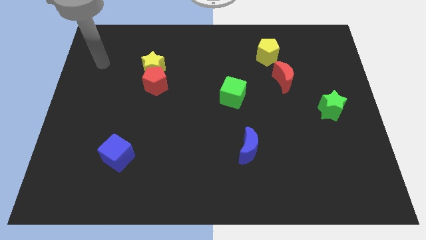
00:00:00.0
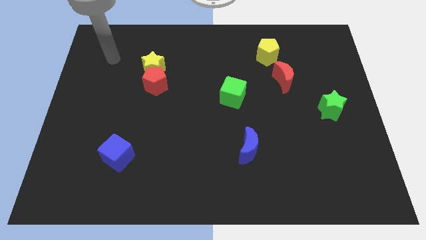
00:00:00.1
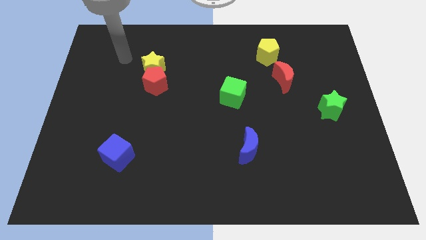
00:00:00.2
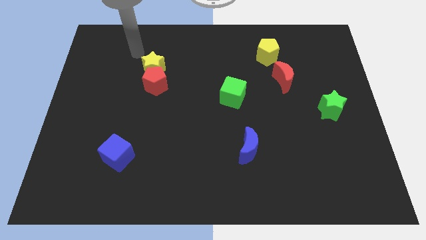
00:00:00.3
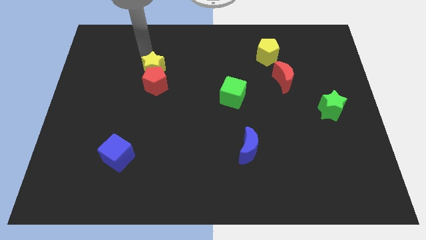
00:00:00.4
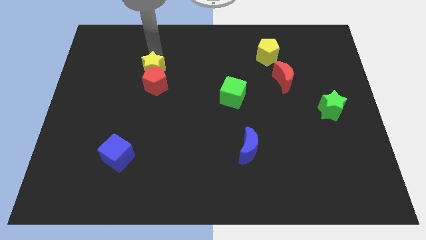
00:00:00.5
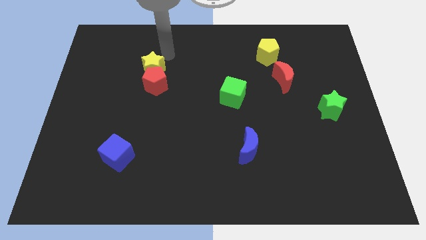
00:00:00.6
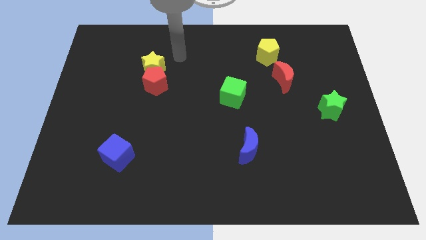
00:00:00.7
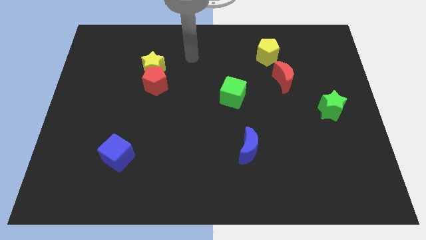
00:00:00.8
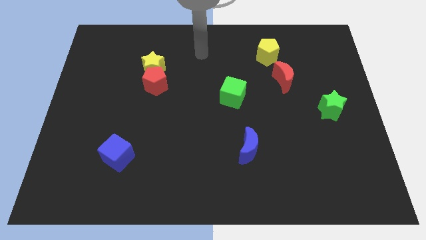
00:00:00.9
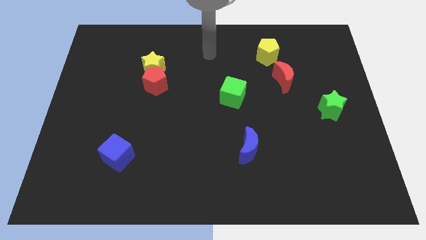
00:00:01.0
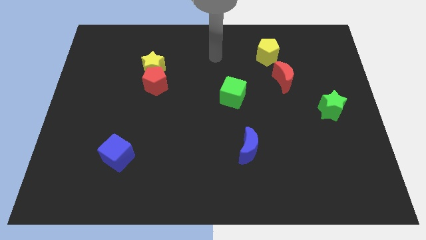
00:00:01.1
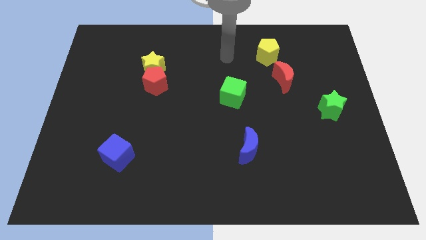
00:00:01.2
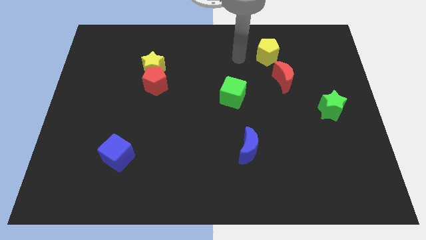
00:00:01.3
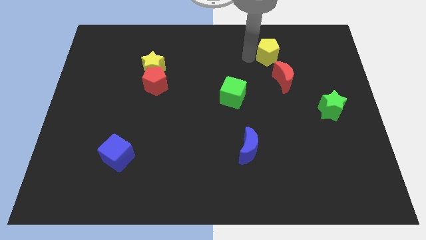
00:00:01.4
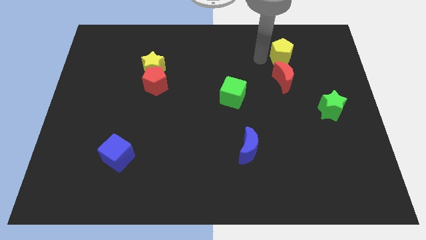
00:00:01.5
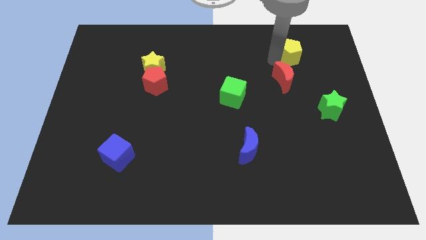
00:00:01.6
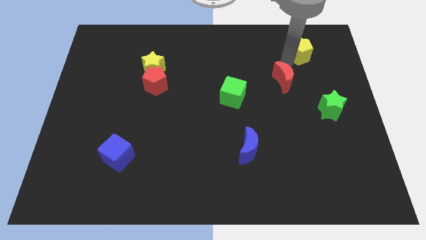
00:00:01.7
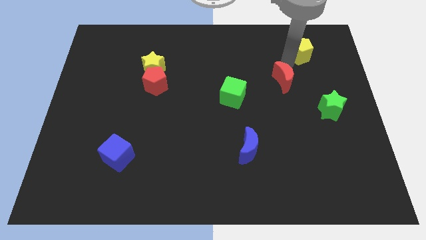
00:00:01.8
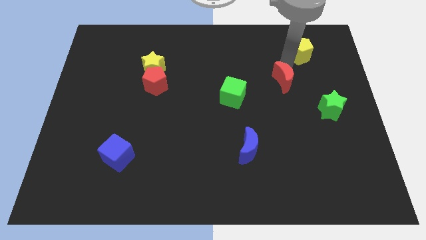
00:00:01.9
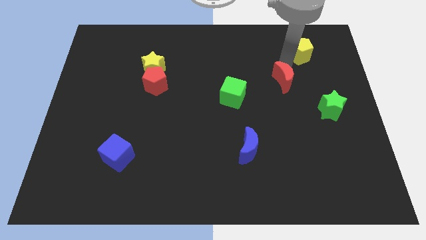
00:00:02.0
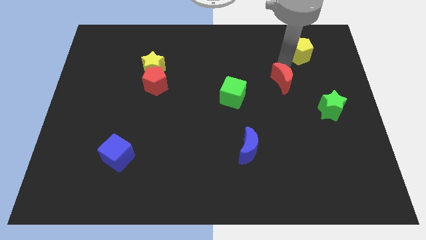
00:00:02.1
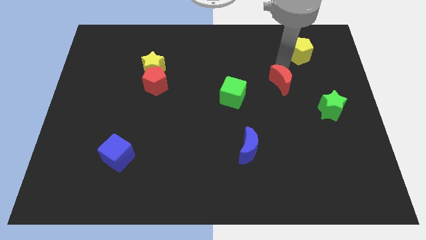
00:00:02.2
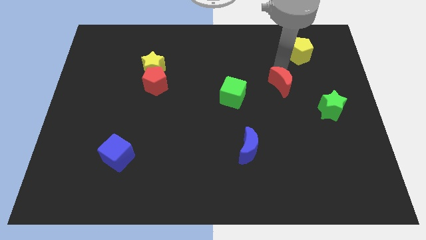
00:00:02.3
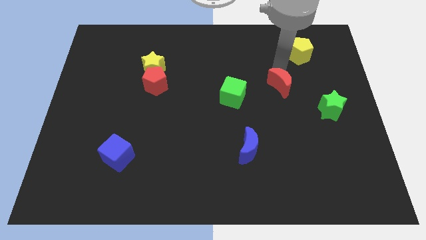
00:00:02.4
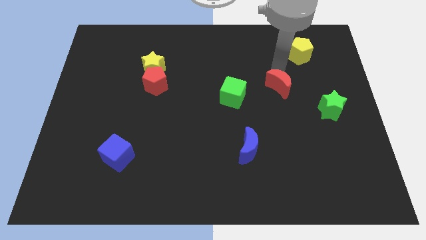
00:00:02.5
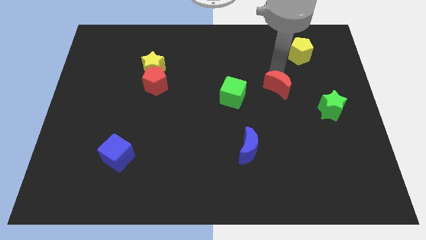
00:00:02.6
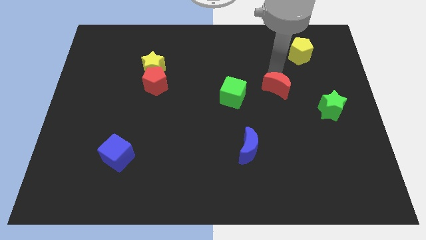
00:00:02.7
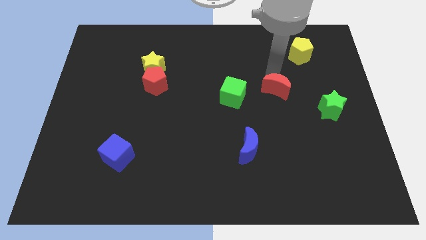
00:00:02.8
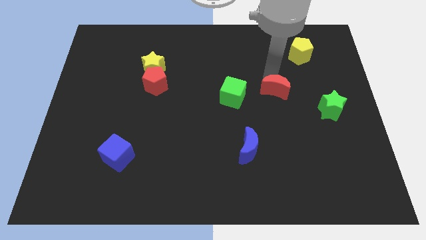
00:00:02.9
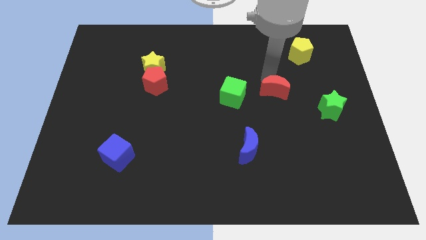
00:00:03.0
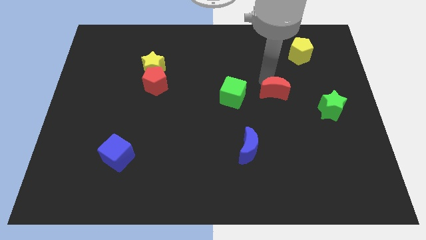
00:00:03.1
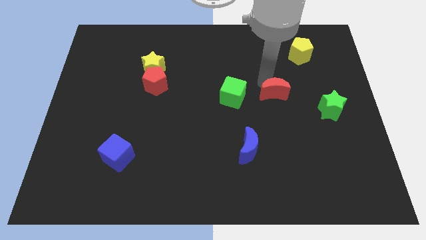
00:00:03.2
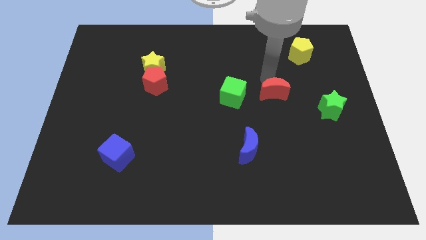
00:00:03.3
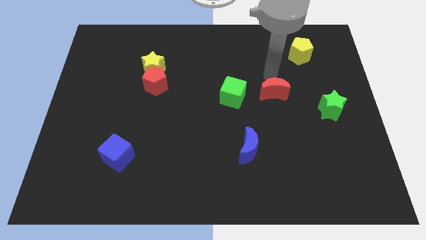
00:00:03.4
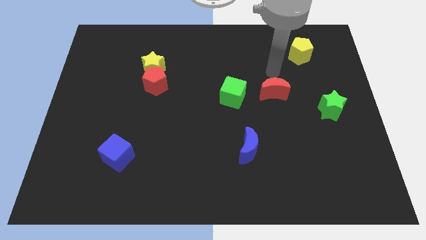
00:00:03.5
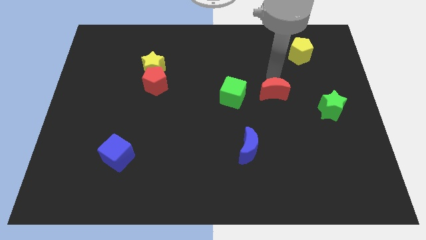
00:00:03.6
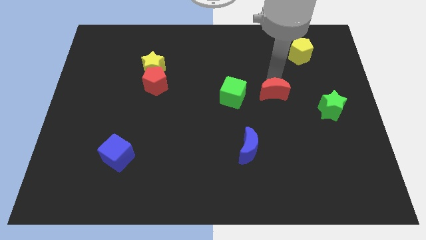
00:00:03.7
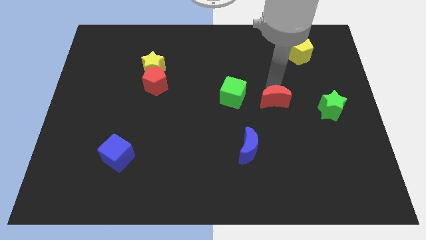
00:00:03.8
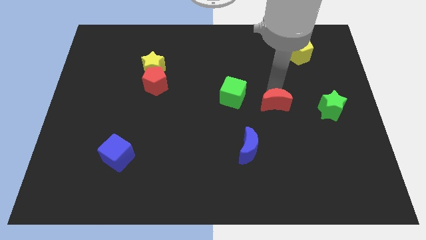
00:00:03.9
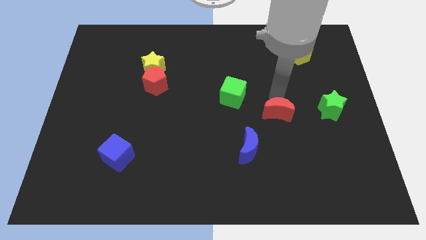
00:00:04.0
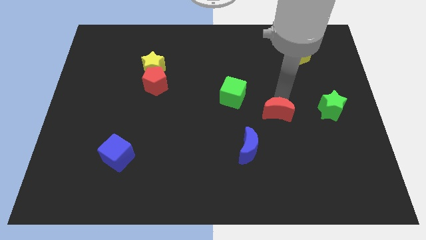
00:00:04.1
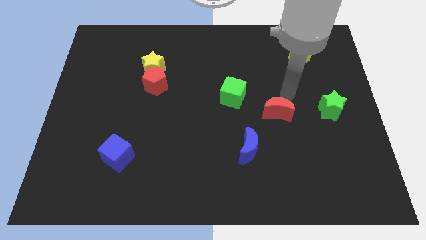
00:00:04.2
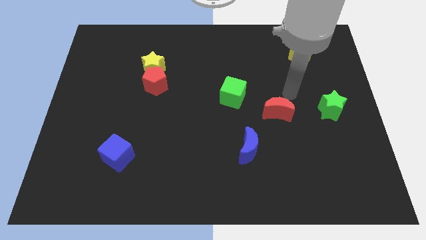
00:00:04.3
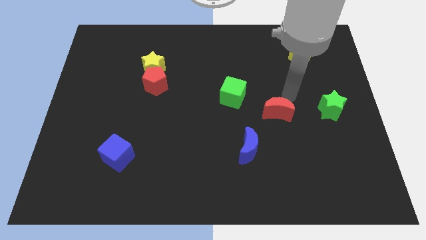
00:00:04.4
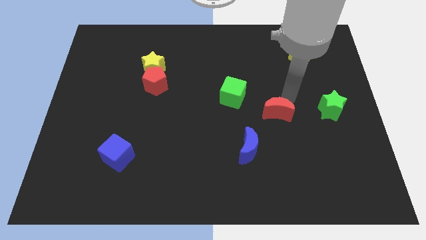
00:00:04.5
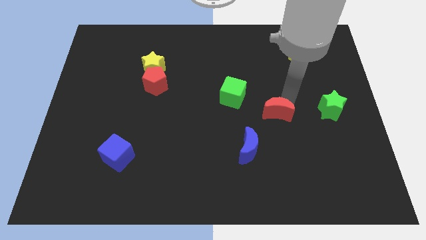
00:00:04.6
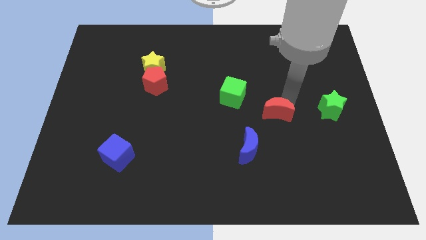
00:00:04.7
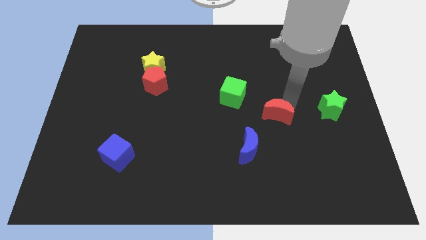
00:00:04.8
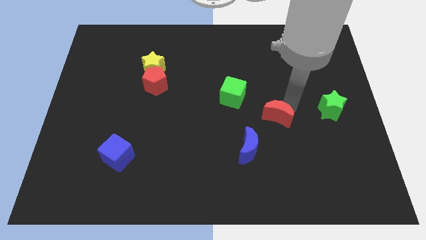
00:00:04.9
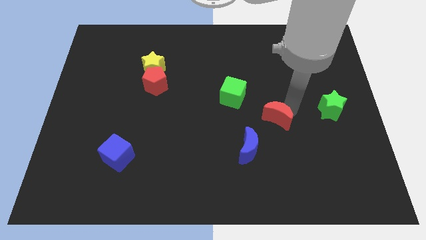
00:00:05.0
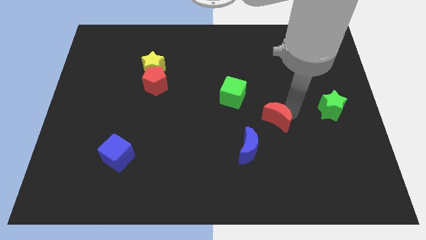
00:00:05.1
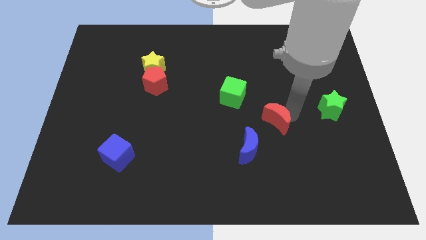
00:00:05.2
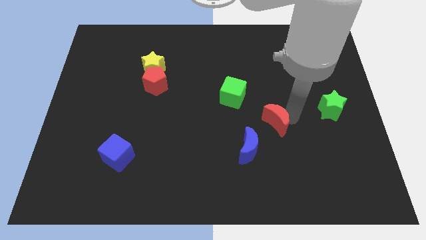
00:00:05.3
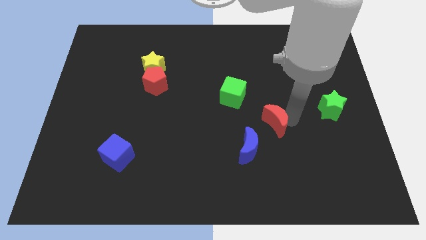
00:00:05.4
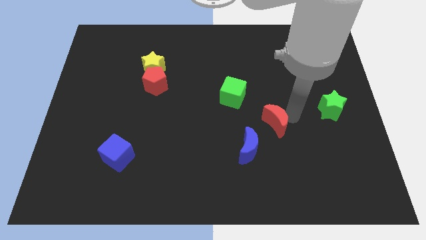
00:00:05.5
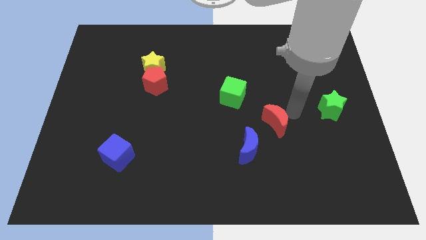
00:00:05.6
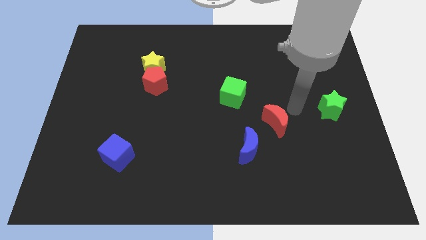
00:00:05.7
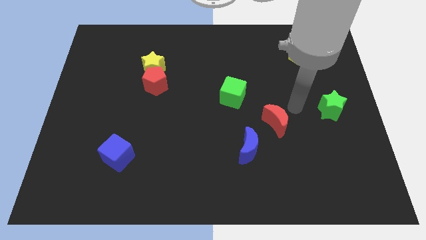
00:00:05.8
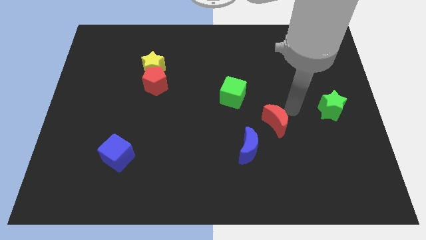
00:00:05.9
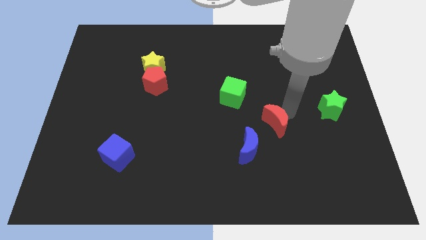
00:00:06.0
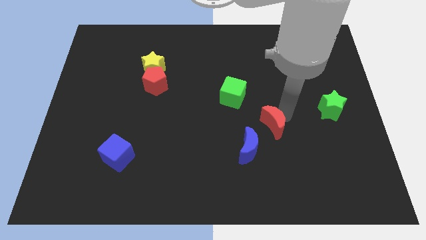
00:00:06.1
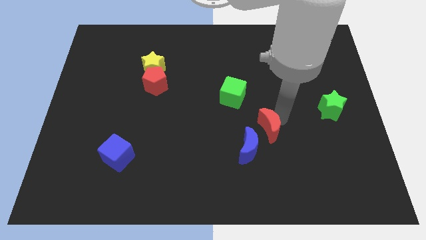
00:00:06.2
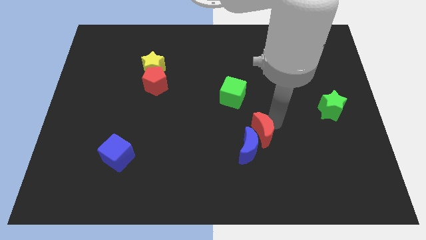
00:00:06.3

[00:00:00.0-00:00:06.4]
put the red moon towards the blue moon

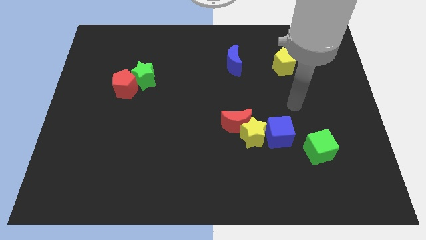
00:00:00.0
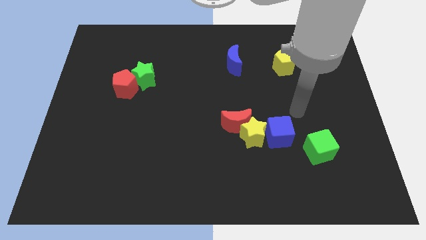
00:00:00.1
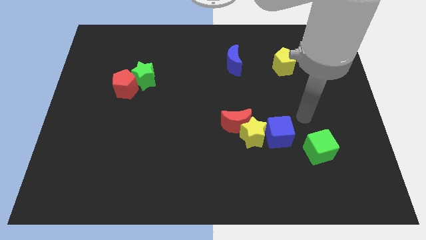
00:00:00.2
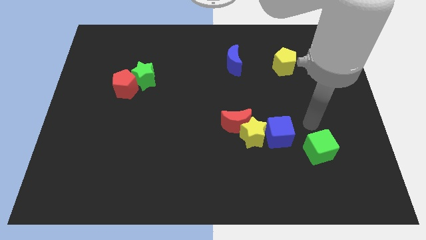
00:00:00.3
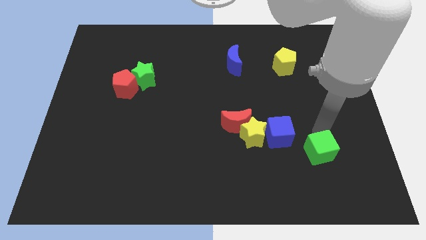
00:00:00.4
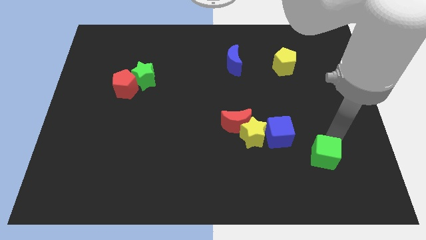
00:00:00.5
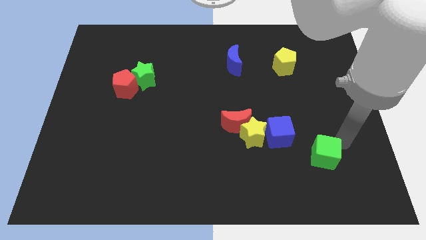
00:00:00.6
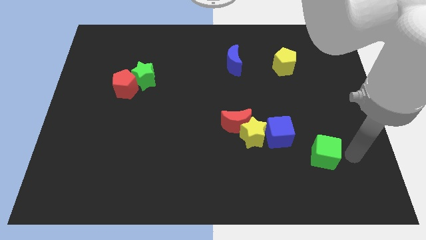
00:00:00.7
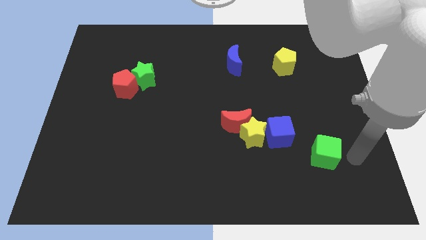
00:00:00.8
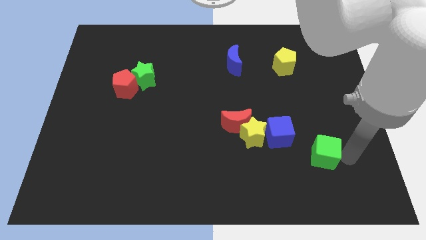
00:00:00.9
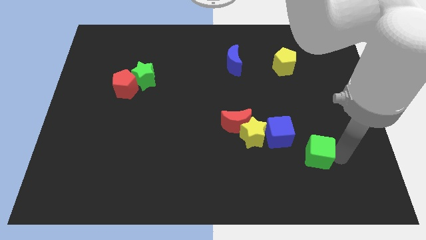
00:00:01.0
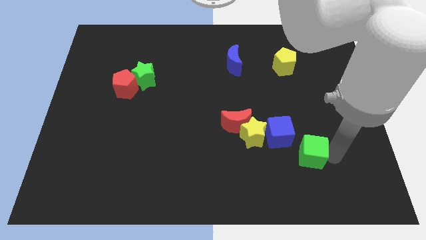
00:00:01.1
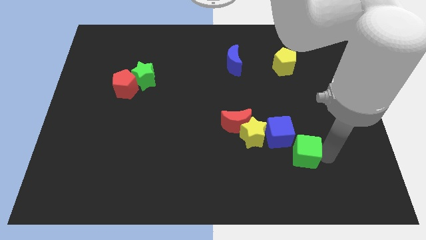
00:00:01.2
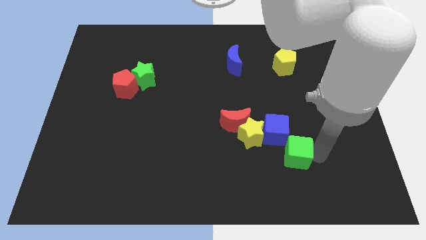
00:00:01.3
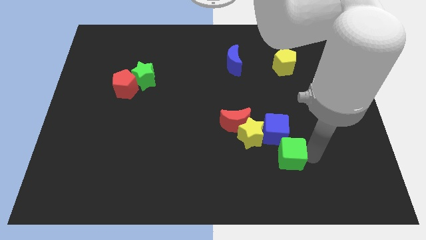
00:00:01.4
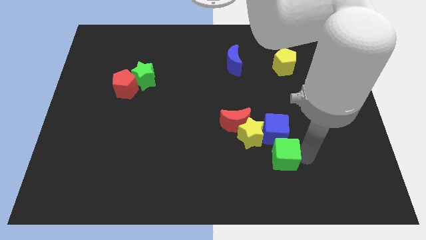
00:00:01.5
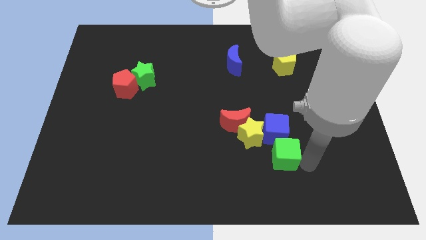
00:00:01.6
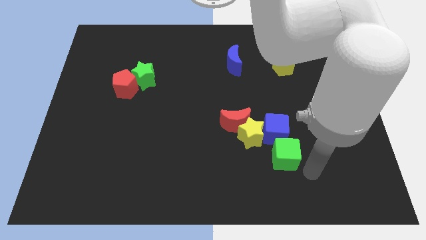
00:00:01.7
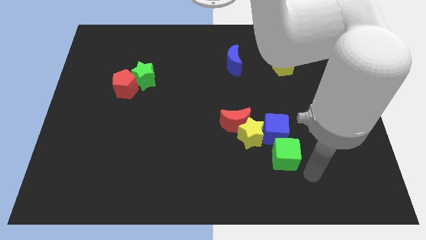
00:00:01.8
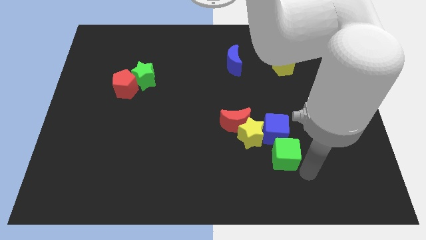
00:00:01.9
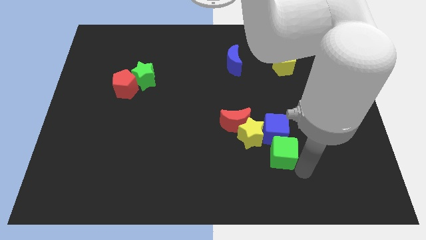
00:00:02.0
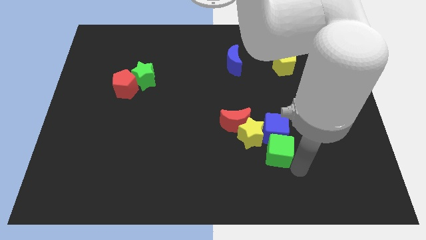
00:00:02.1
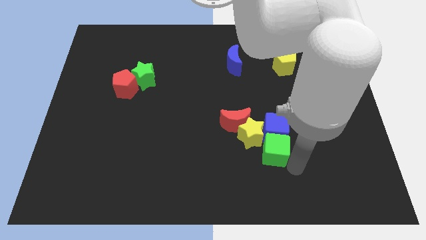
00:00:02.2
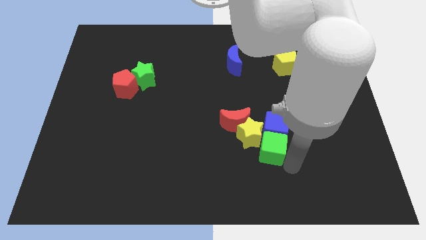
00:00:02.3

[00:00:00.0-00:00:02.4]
slide the green cube towards the yellow star
